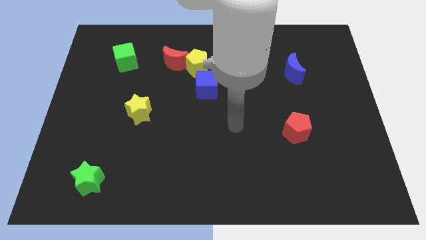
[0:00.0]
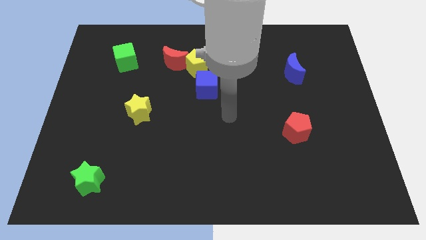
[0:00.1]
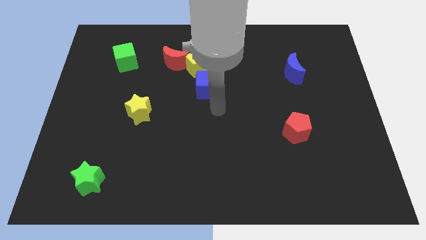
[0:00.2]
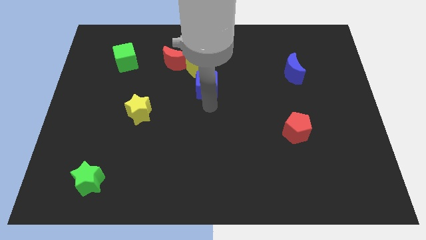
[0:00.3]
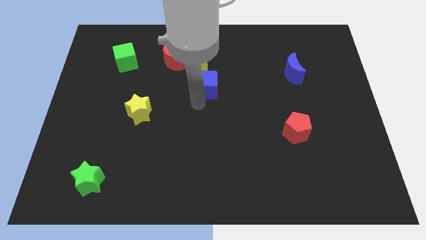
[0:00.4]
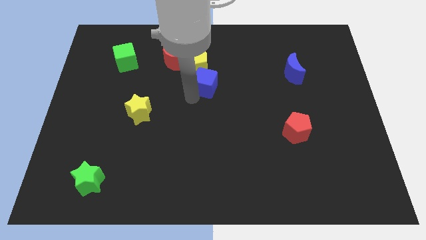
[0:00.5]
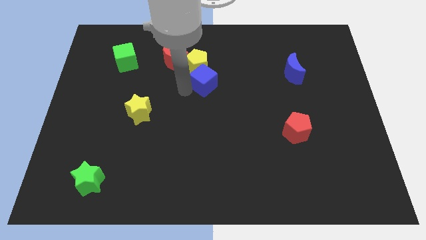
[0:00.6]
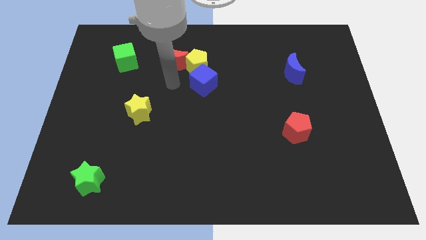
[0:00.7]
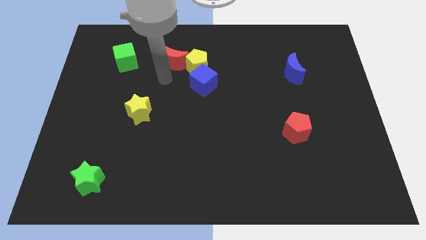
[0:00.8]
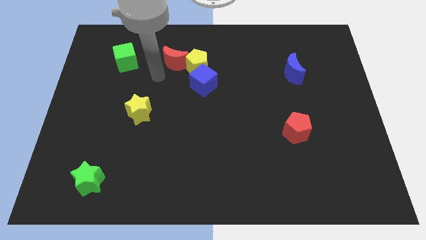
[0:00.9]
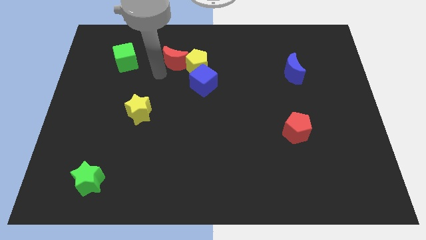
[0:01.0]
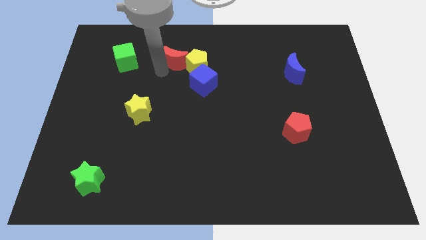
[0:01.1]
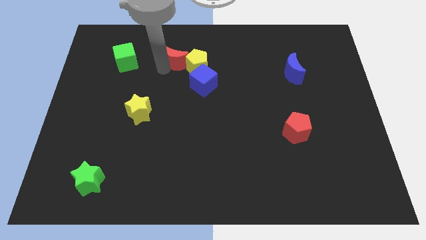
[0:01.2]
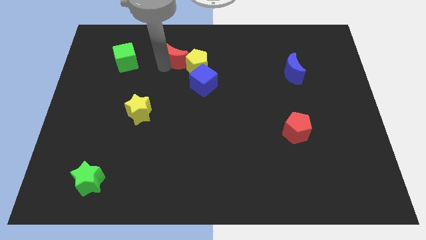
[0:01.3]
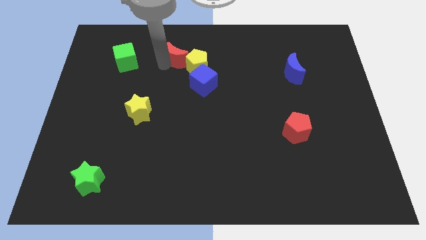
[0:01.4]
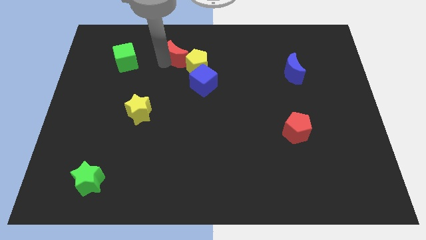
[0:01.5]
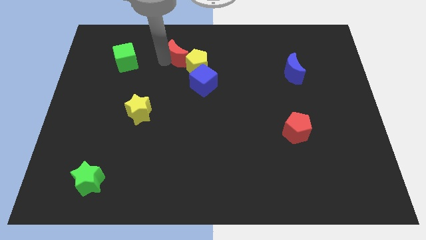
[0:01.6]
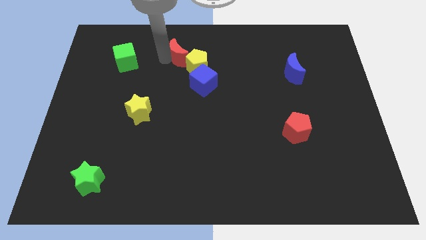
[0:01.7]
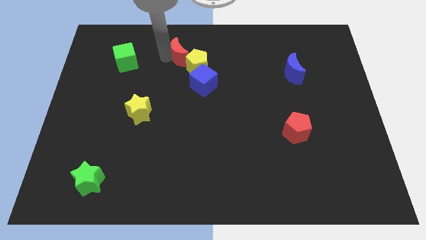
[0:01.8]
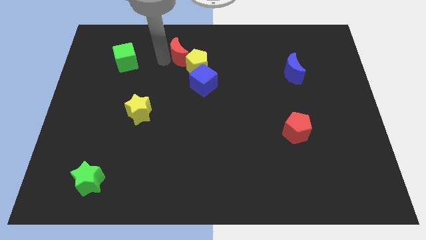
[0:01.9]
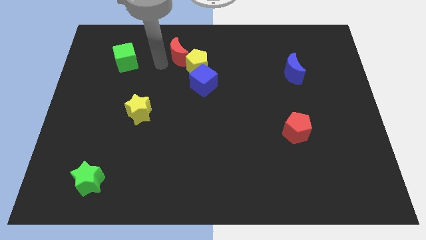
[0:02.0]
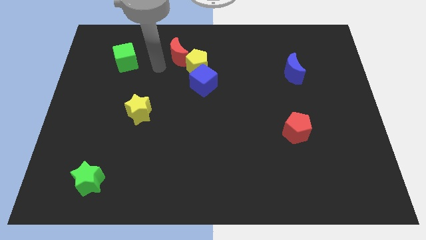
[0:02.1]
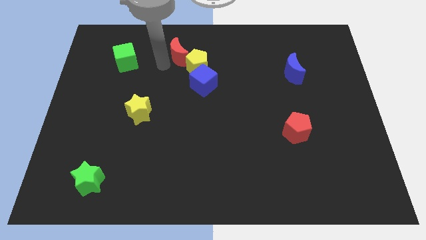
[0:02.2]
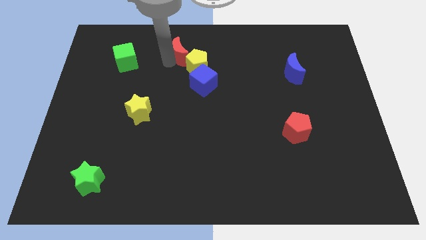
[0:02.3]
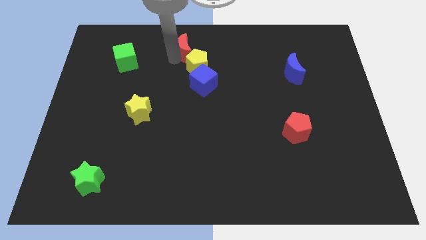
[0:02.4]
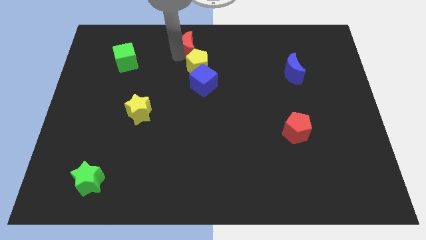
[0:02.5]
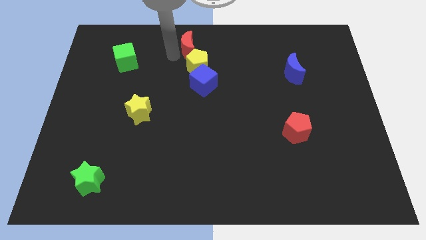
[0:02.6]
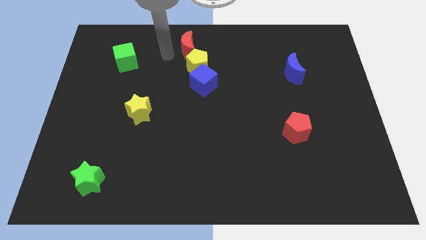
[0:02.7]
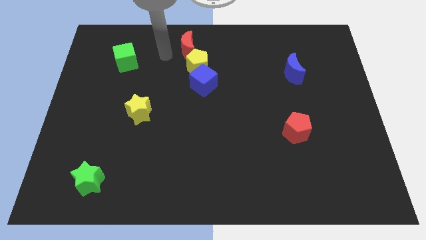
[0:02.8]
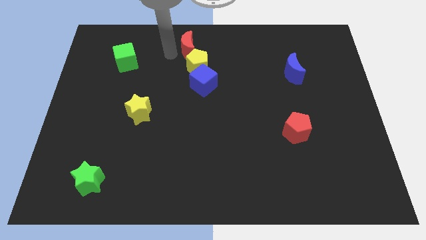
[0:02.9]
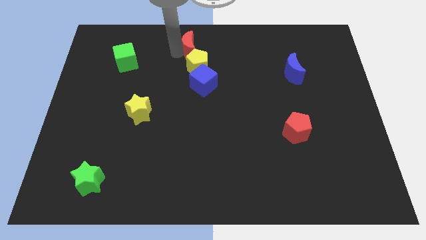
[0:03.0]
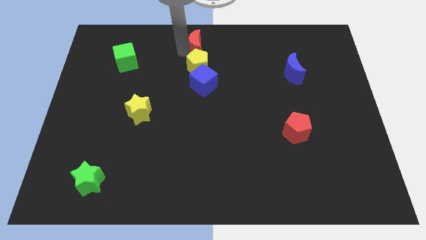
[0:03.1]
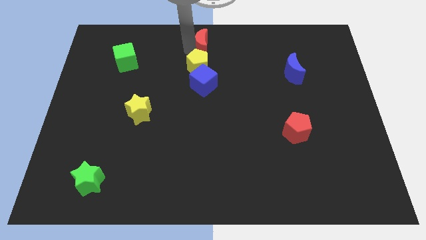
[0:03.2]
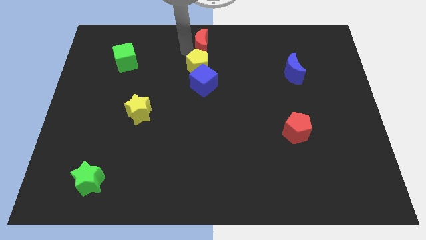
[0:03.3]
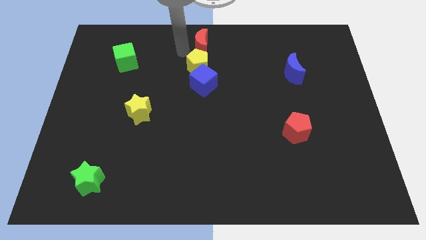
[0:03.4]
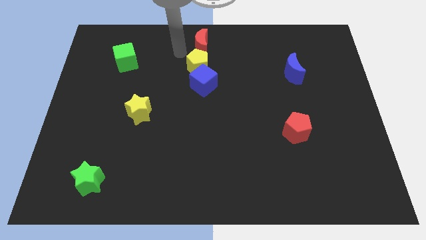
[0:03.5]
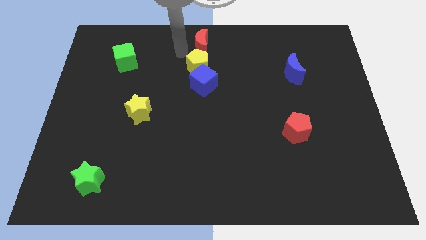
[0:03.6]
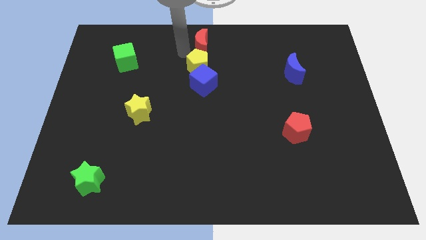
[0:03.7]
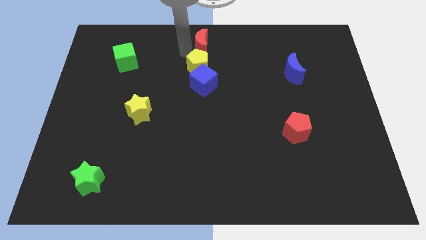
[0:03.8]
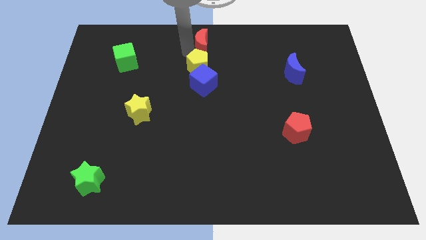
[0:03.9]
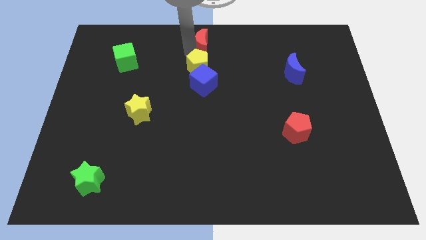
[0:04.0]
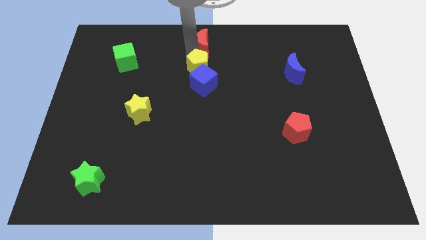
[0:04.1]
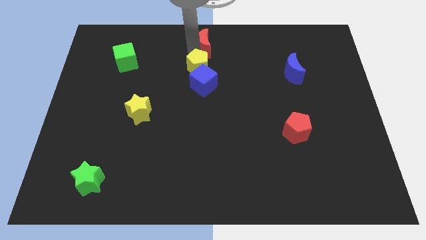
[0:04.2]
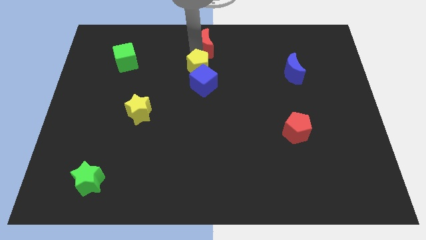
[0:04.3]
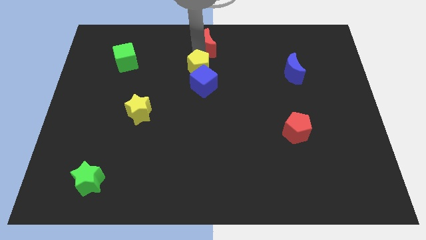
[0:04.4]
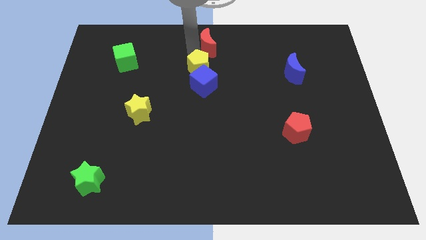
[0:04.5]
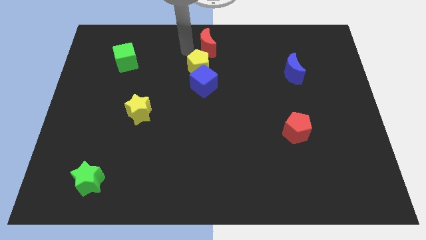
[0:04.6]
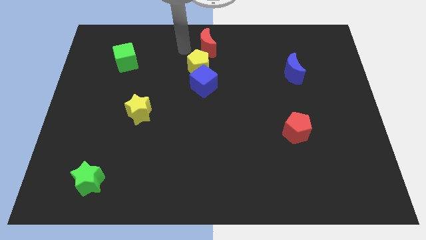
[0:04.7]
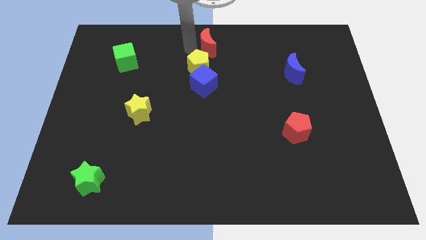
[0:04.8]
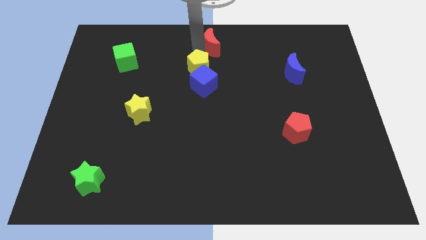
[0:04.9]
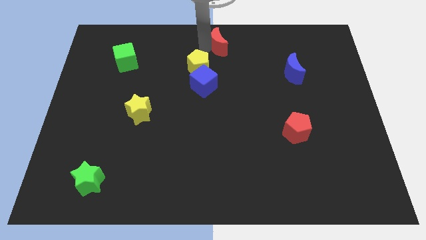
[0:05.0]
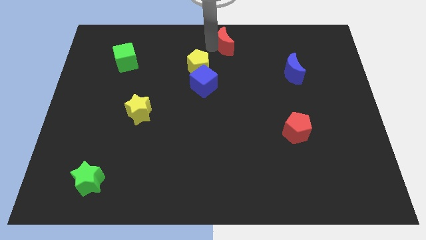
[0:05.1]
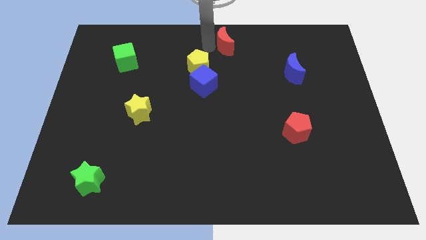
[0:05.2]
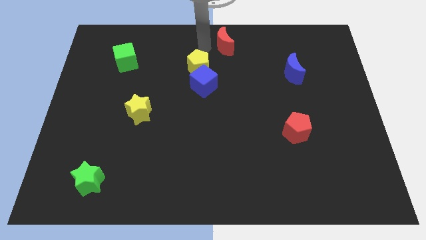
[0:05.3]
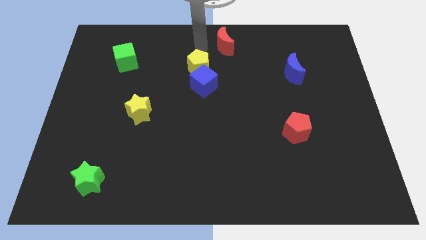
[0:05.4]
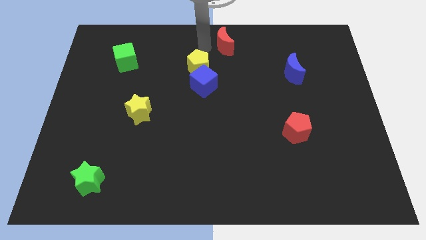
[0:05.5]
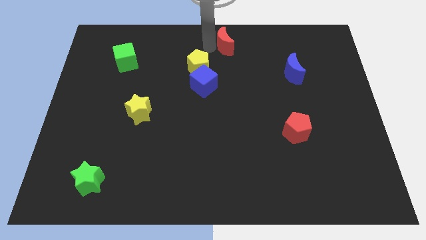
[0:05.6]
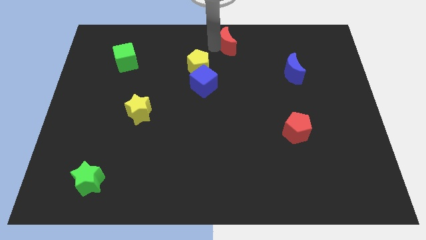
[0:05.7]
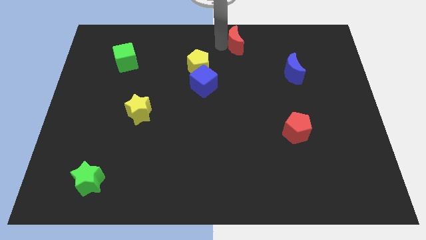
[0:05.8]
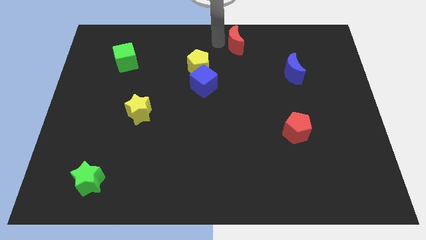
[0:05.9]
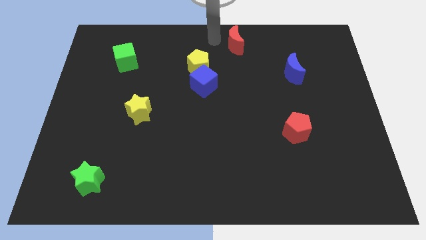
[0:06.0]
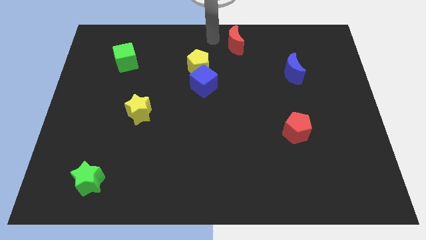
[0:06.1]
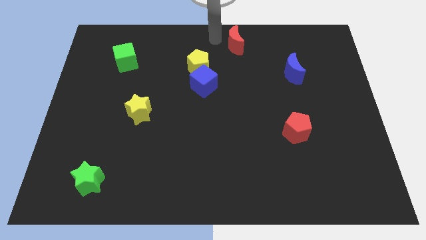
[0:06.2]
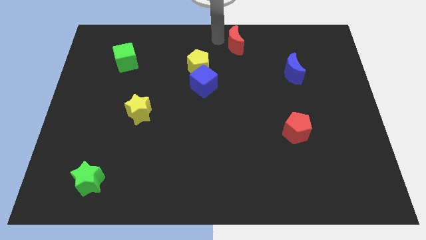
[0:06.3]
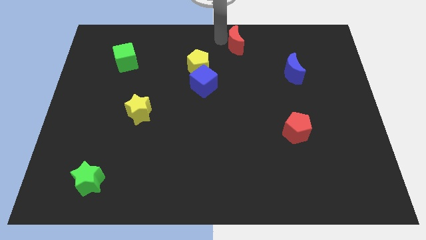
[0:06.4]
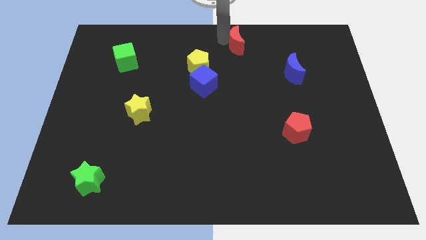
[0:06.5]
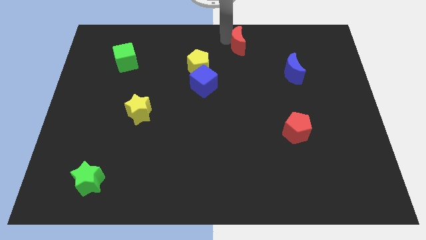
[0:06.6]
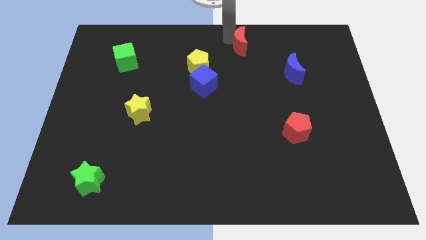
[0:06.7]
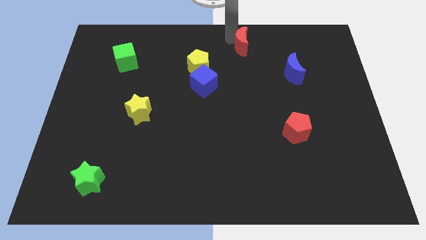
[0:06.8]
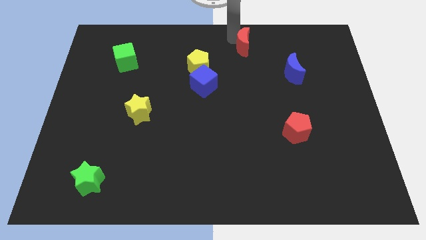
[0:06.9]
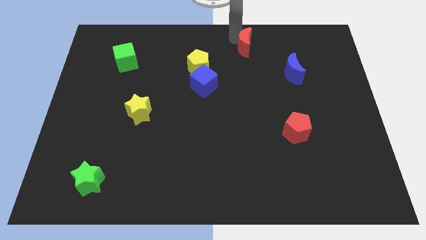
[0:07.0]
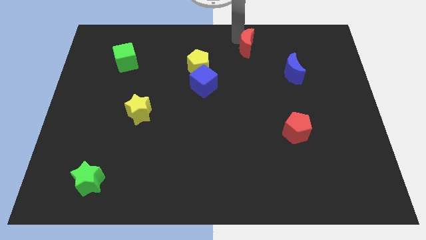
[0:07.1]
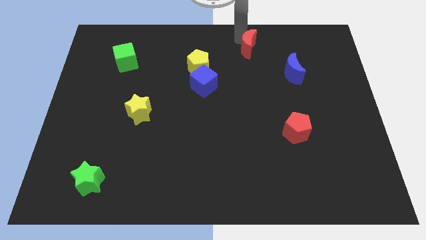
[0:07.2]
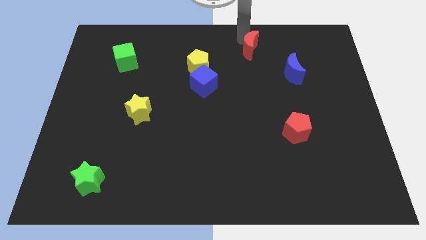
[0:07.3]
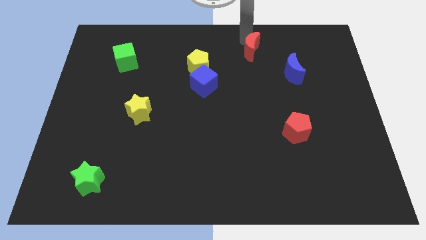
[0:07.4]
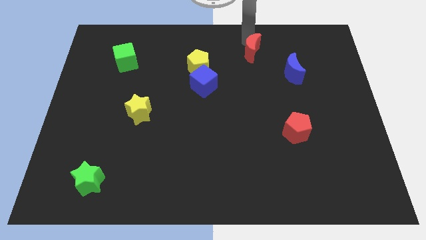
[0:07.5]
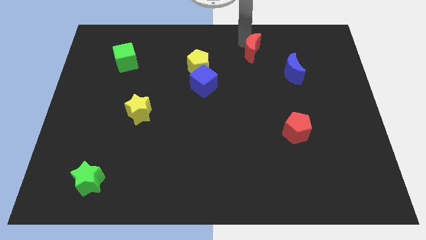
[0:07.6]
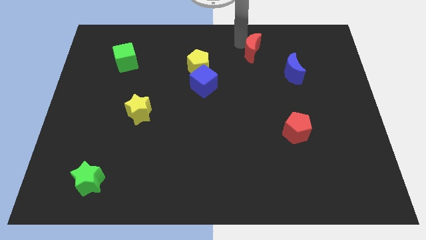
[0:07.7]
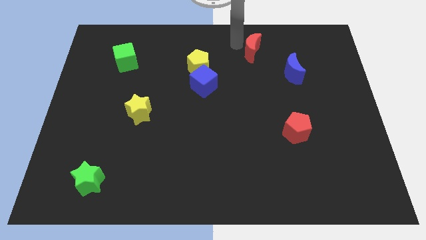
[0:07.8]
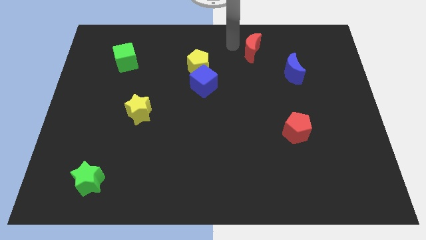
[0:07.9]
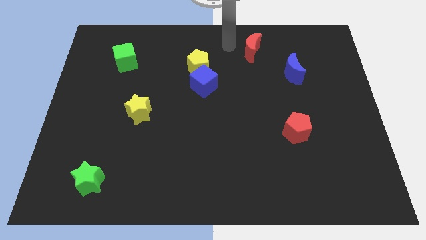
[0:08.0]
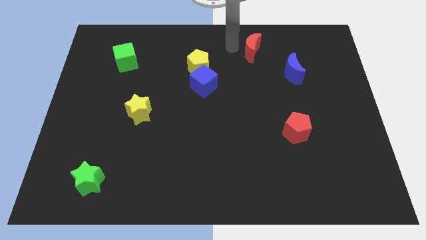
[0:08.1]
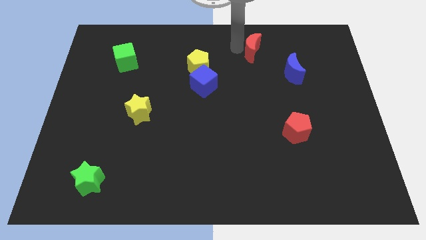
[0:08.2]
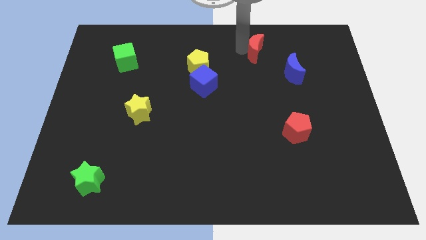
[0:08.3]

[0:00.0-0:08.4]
slide the red moon to the right
